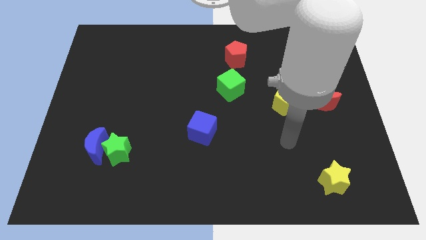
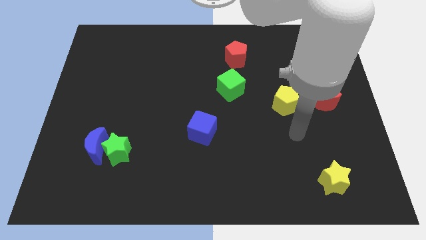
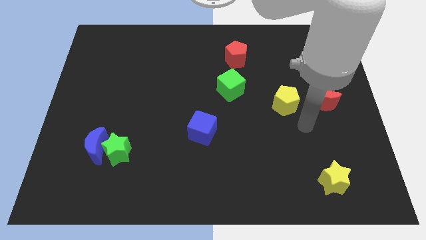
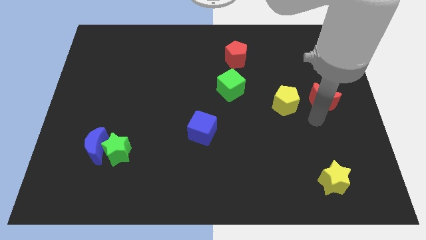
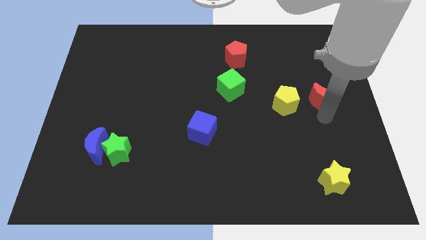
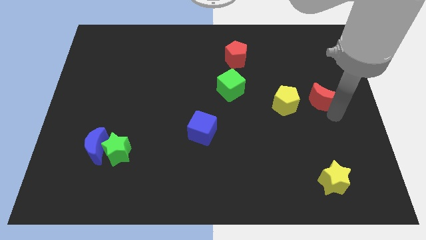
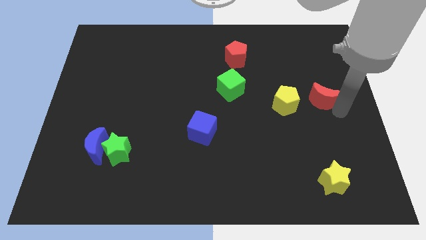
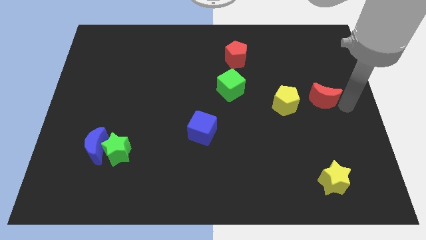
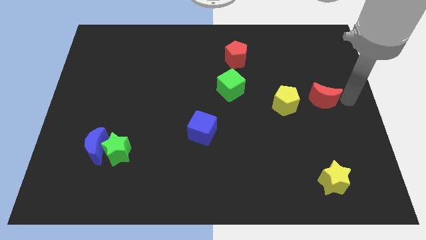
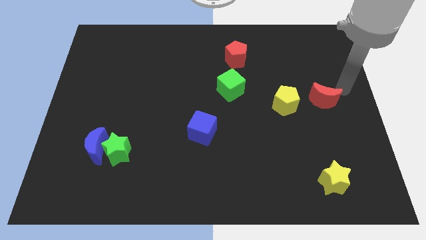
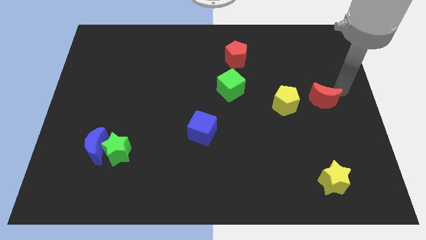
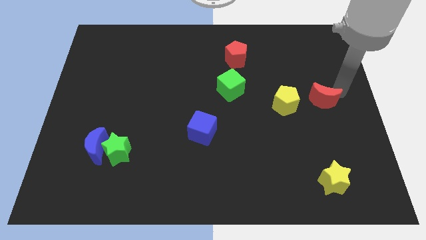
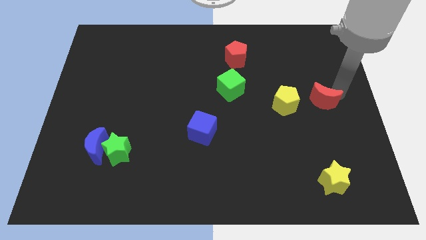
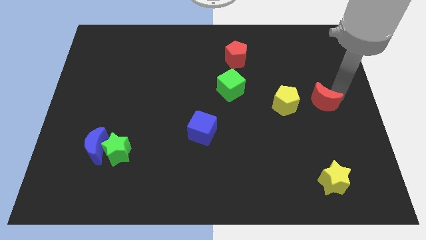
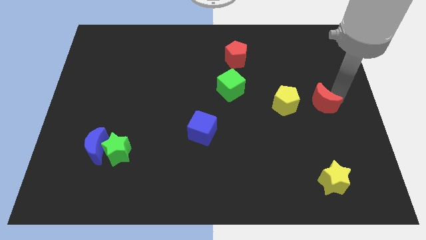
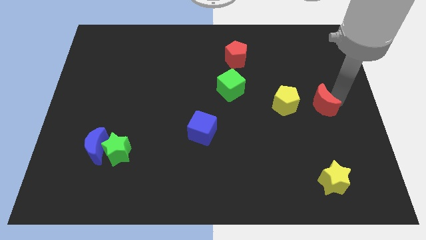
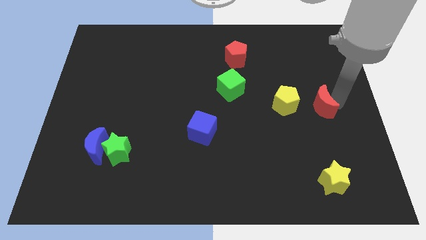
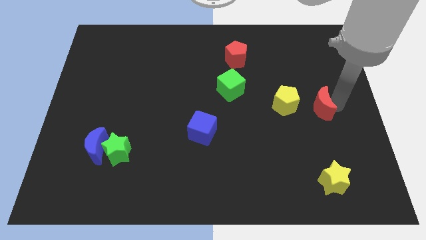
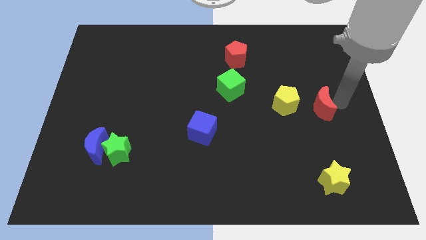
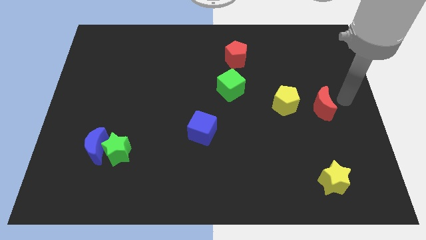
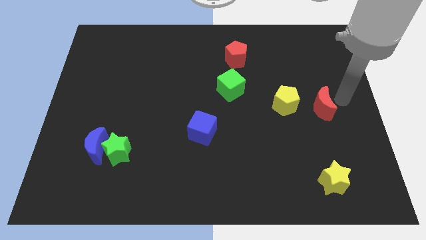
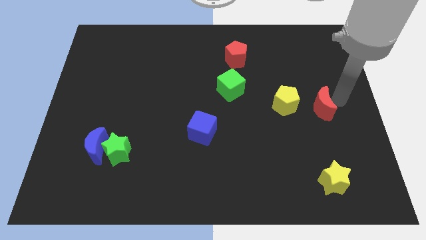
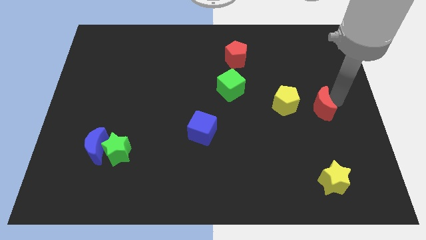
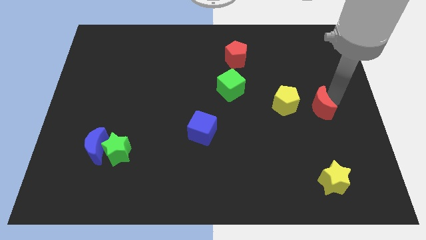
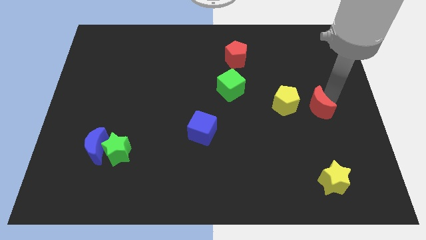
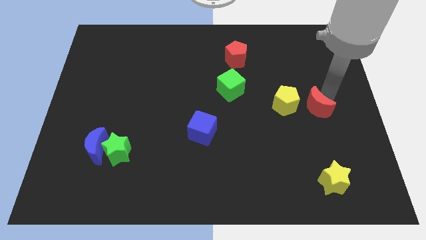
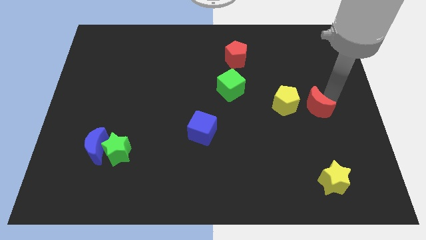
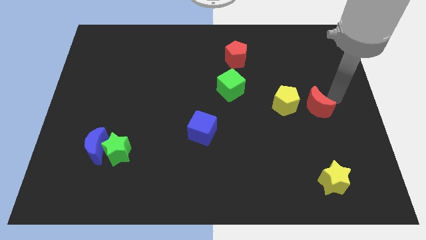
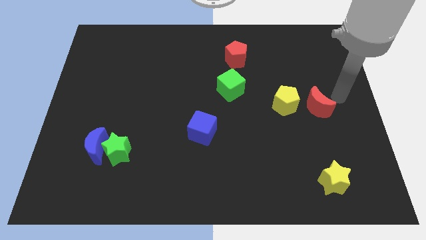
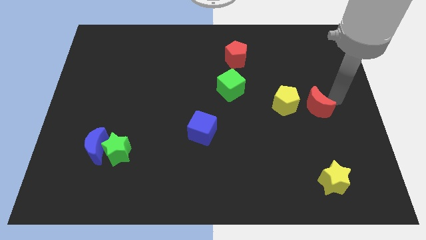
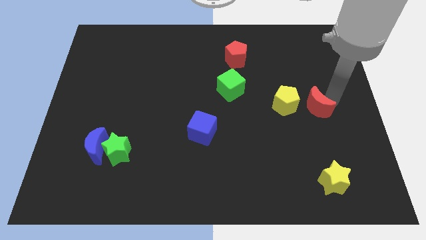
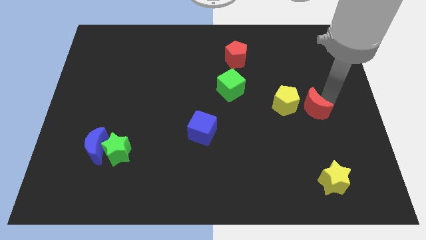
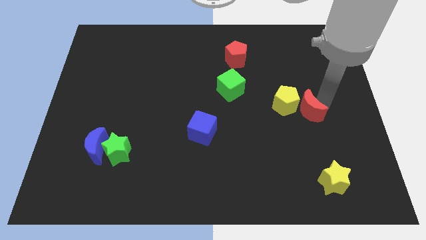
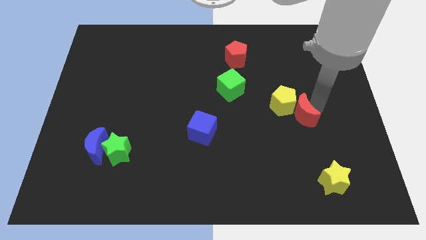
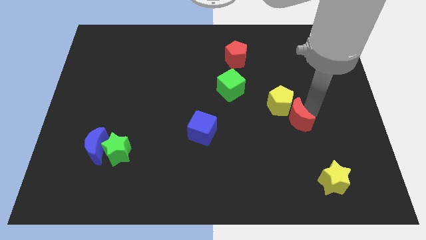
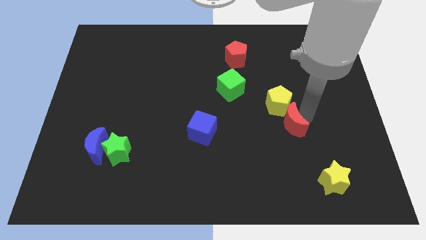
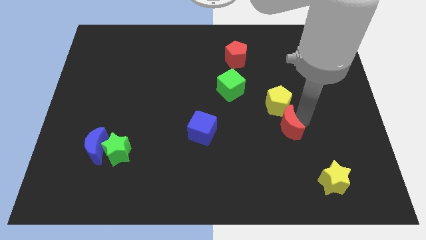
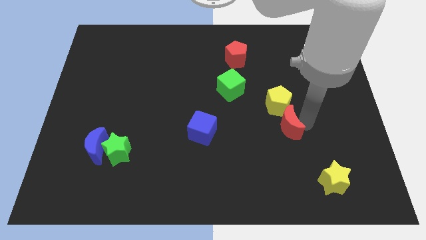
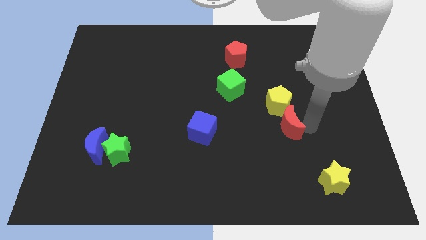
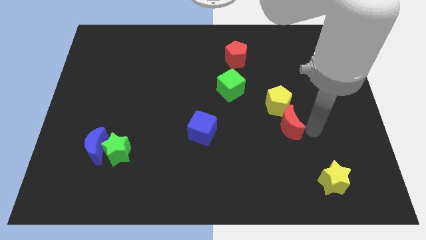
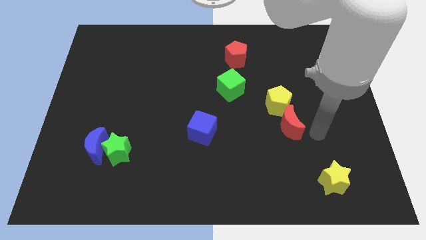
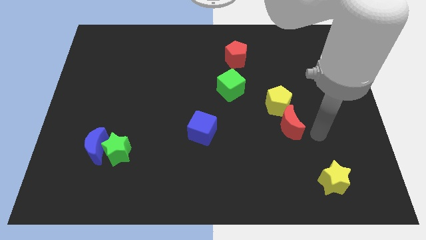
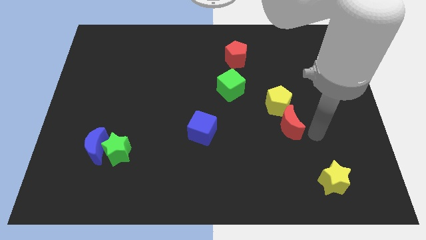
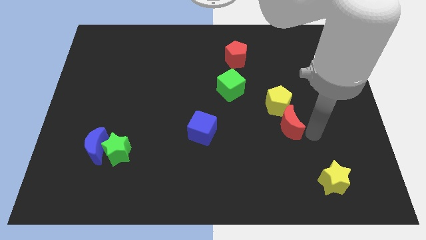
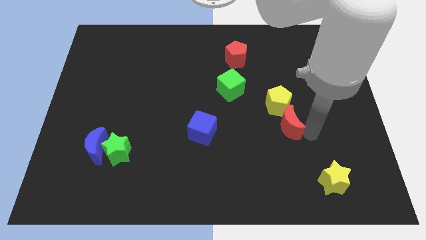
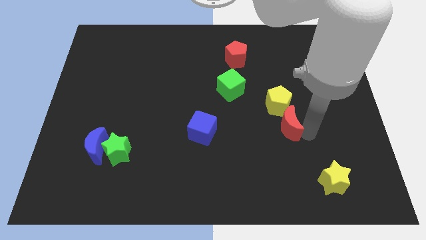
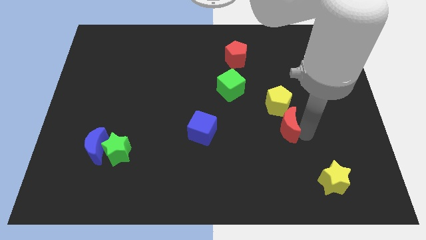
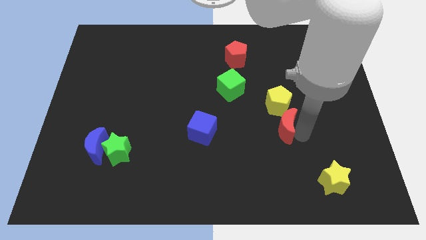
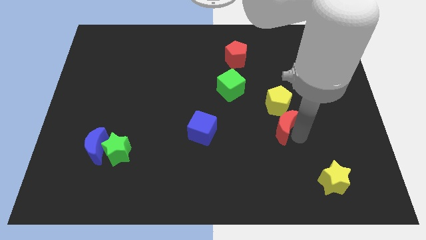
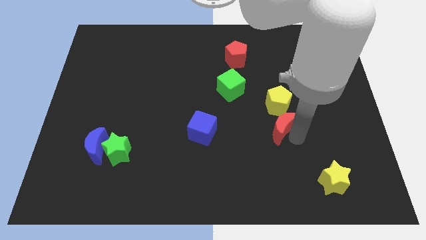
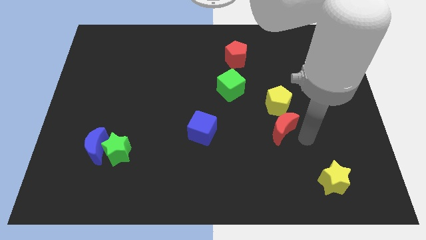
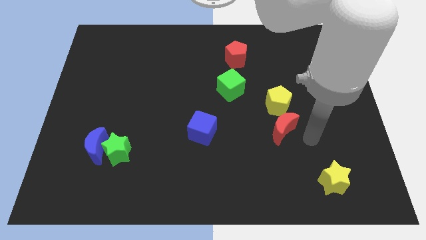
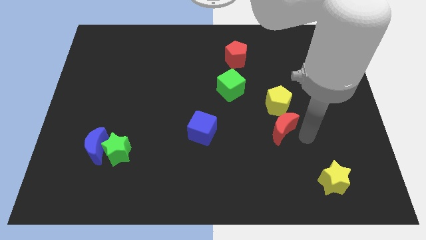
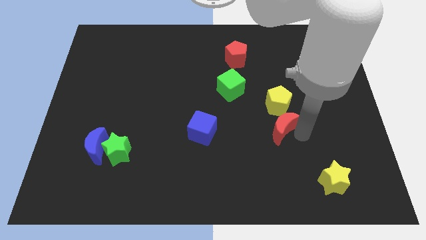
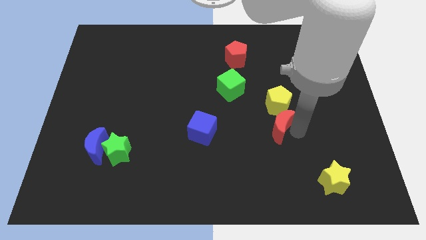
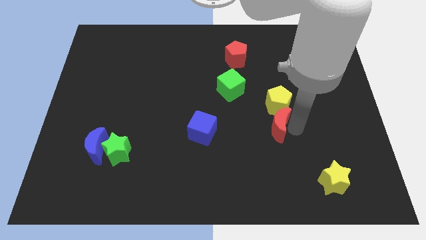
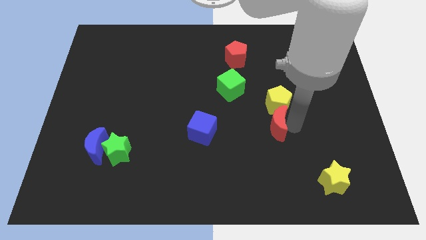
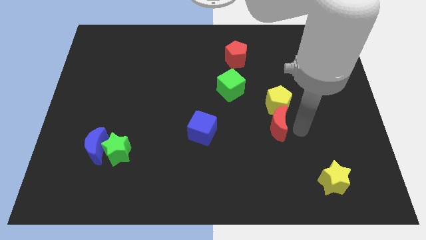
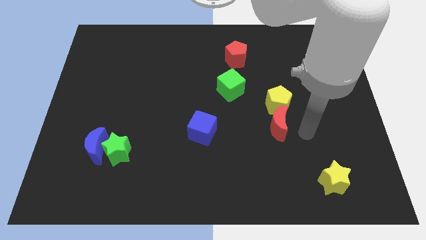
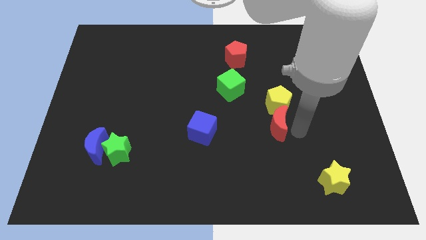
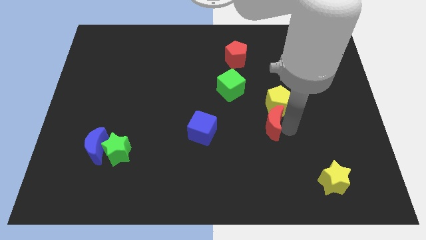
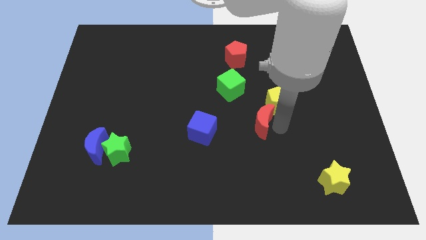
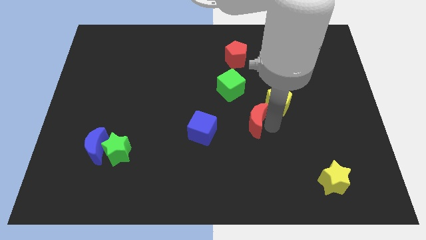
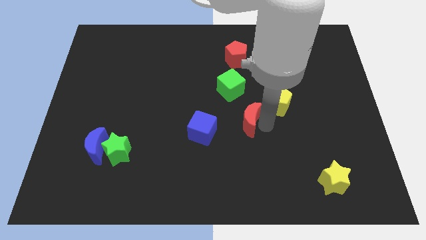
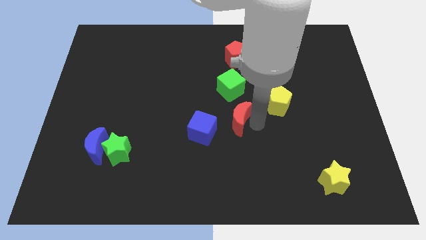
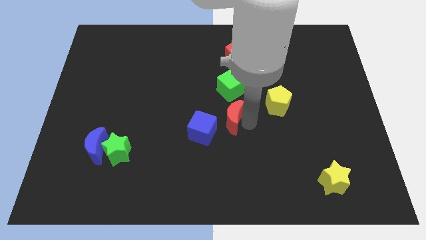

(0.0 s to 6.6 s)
push the red moon left

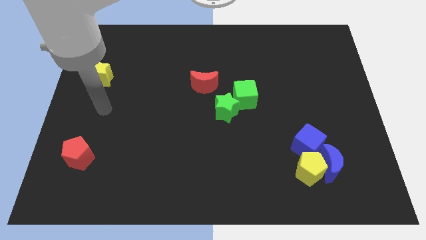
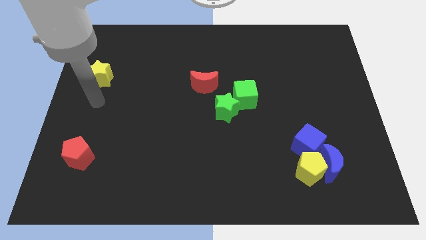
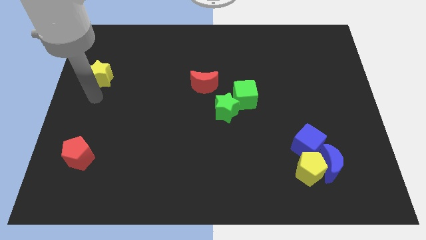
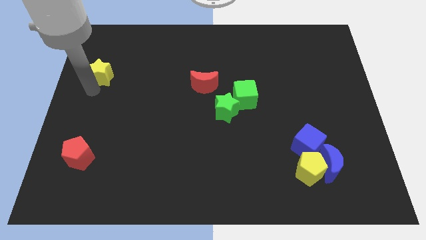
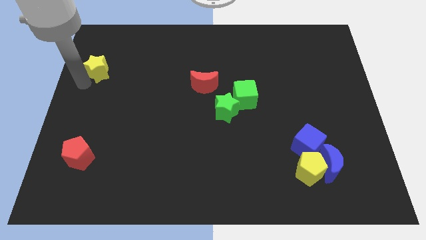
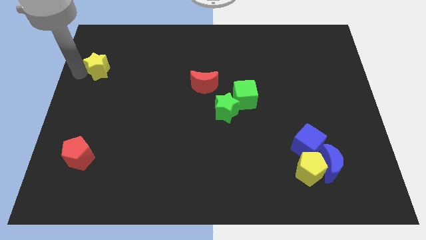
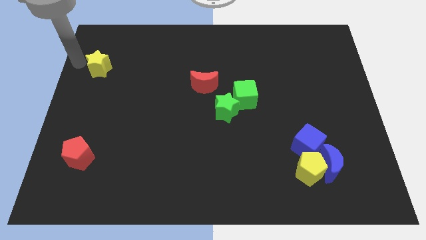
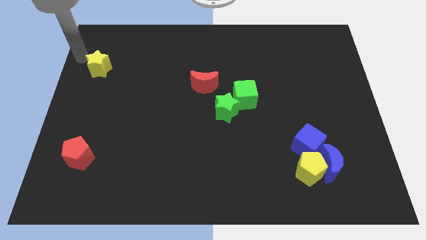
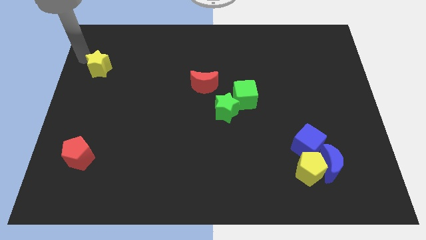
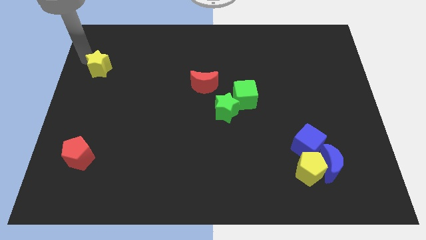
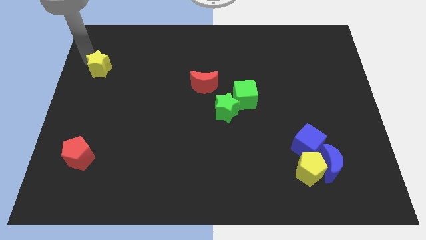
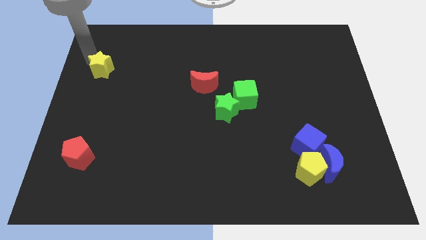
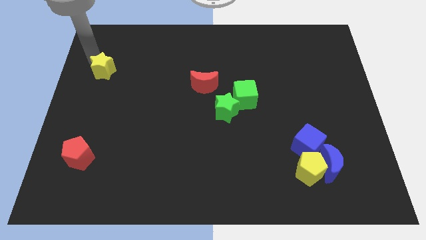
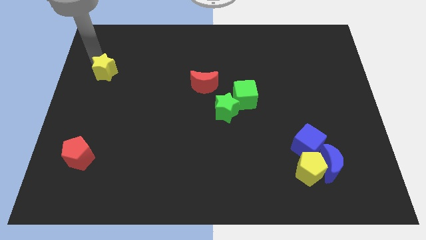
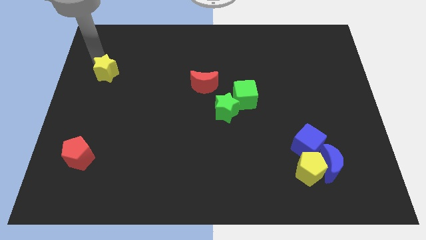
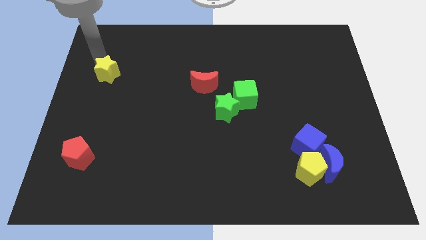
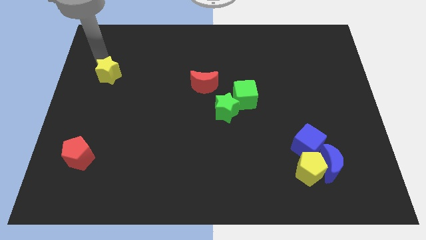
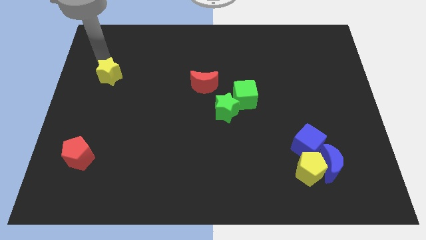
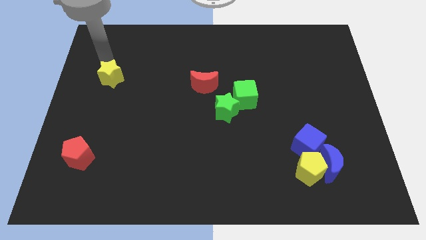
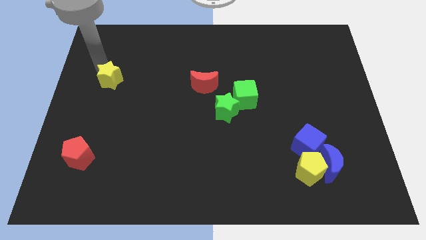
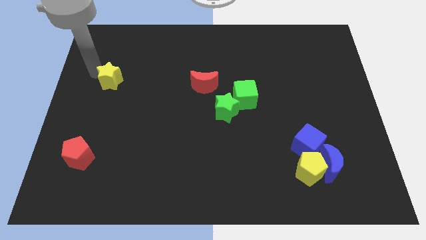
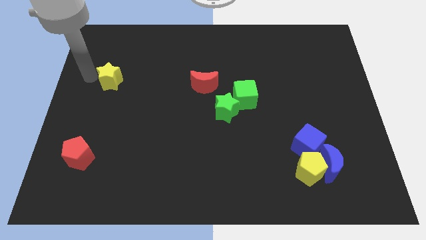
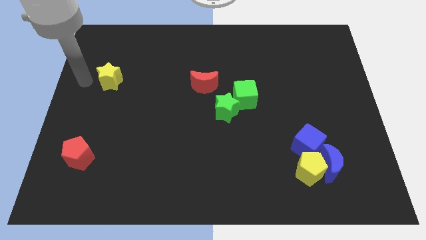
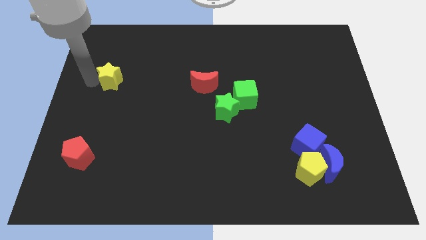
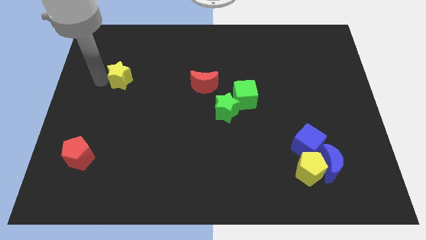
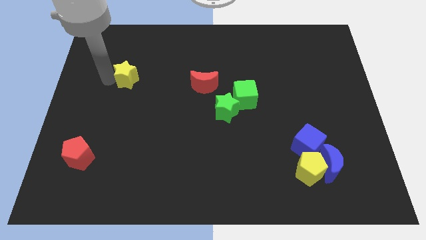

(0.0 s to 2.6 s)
move the yellow star a little to the right
